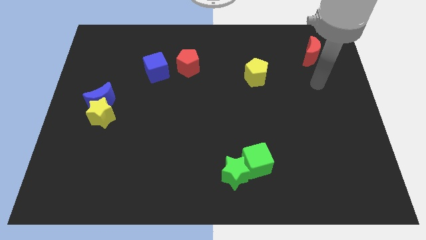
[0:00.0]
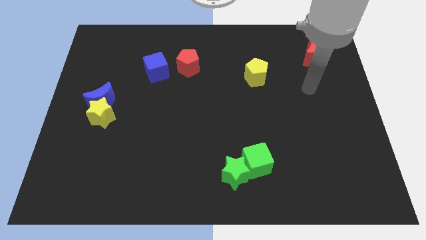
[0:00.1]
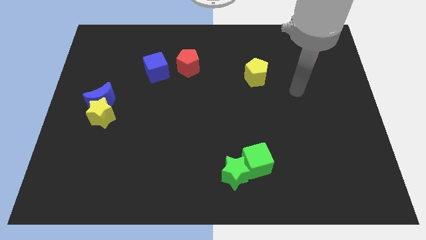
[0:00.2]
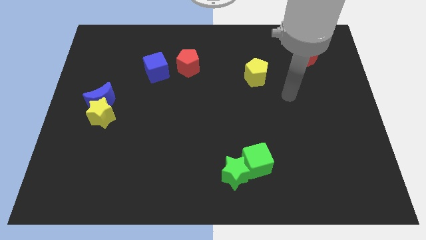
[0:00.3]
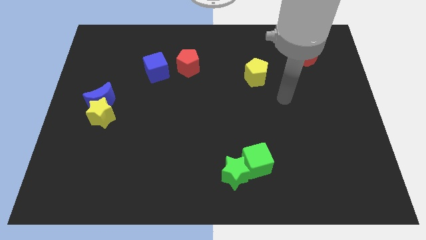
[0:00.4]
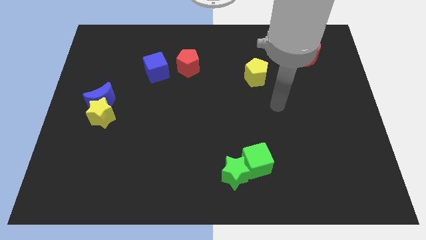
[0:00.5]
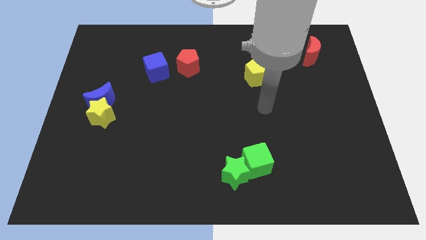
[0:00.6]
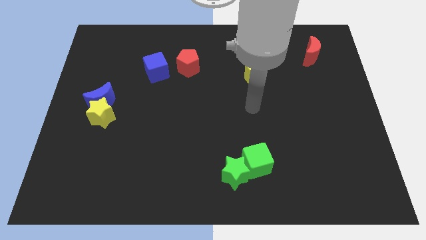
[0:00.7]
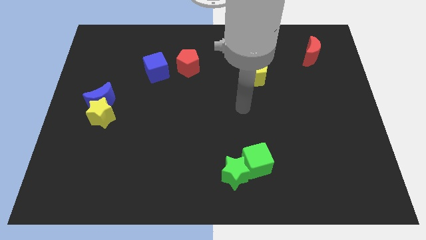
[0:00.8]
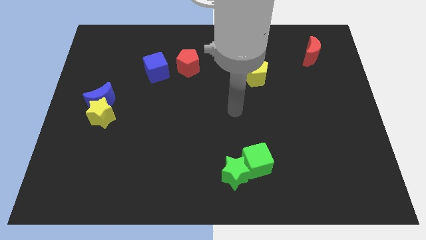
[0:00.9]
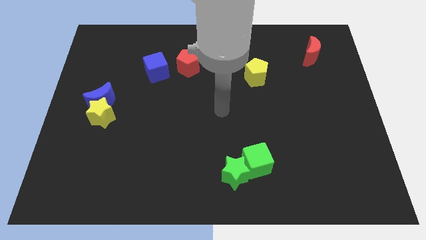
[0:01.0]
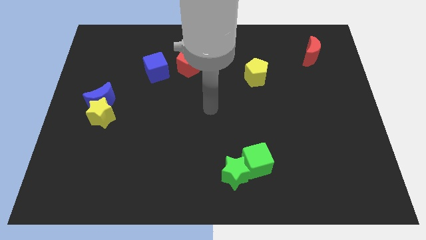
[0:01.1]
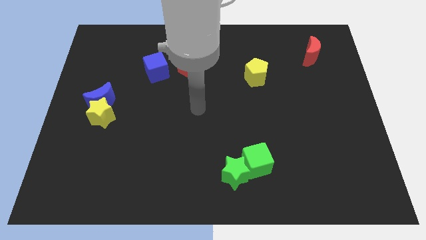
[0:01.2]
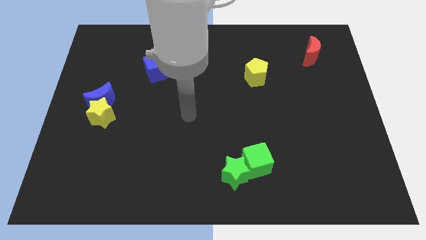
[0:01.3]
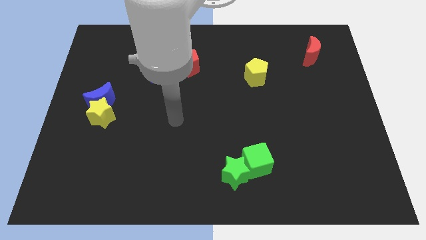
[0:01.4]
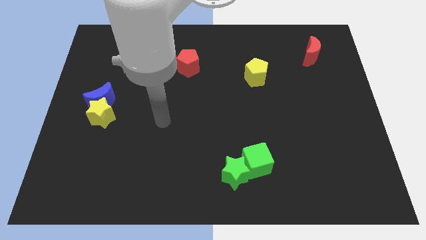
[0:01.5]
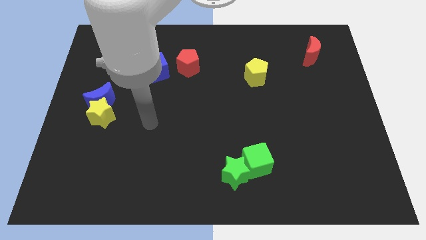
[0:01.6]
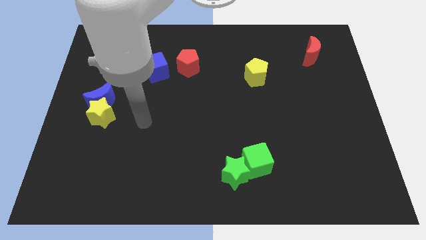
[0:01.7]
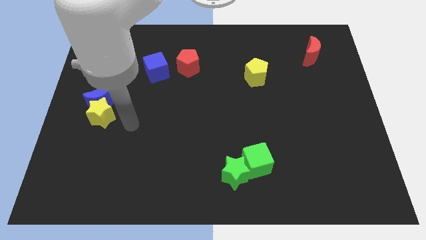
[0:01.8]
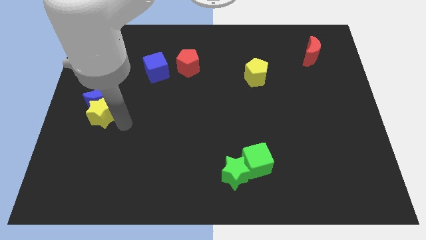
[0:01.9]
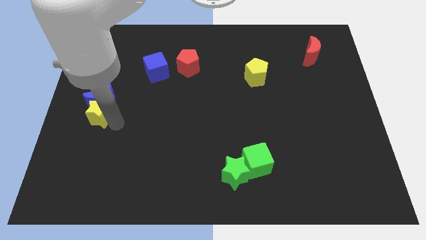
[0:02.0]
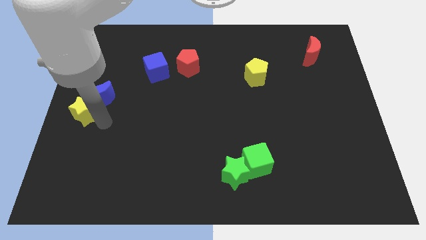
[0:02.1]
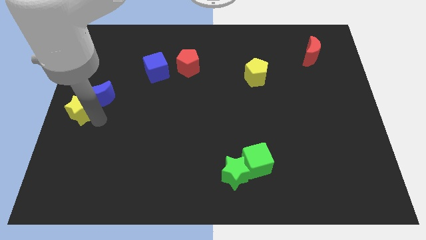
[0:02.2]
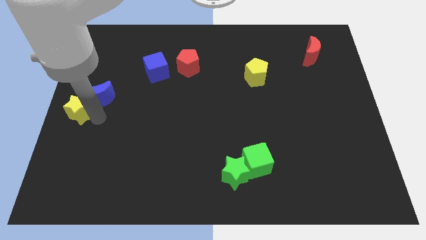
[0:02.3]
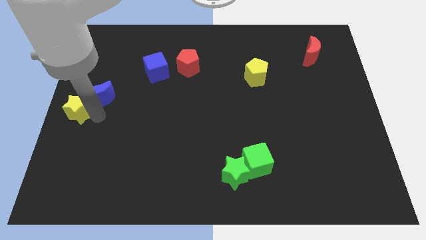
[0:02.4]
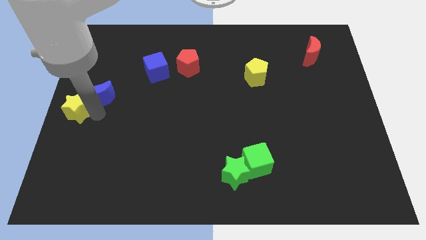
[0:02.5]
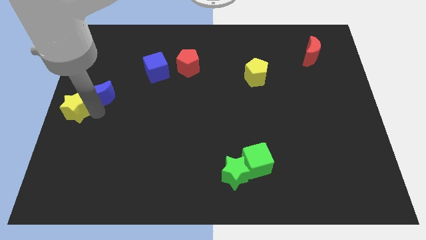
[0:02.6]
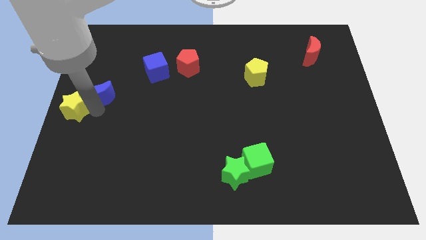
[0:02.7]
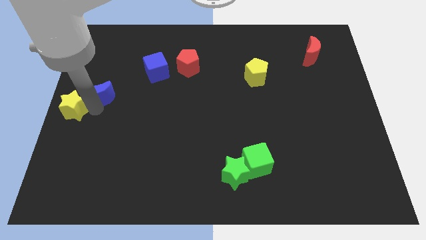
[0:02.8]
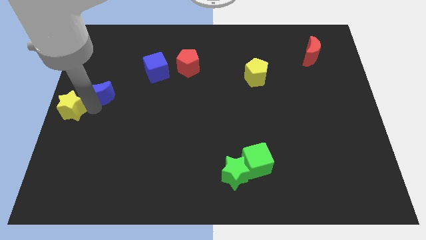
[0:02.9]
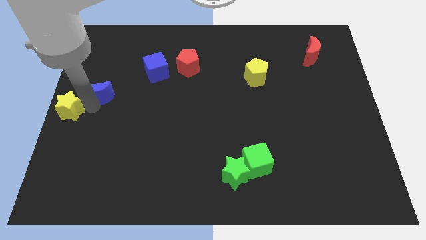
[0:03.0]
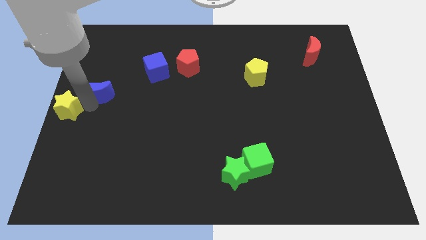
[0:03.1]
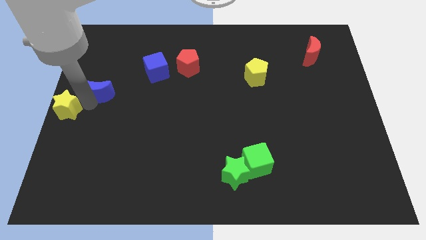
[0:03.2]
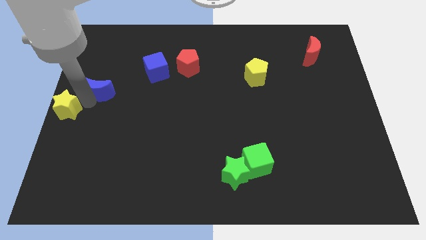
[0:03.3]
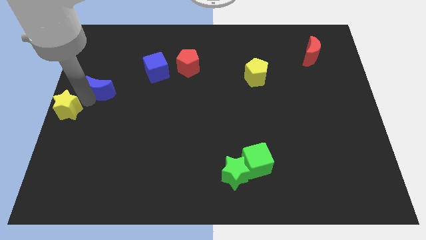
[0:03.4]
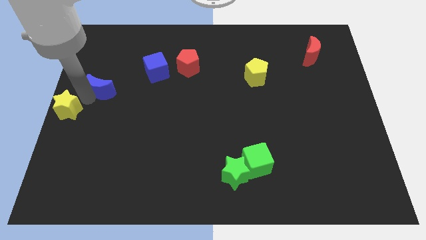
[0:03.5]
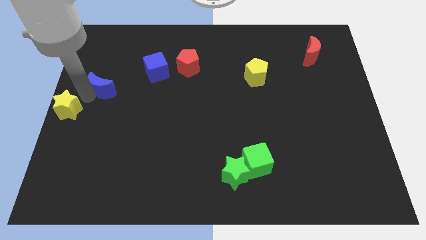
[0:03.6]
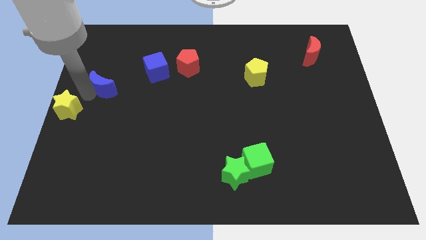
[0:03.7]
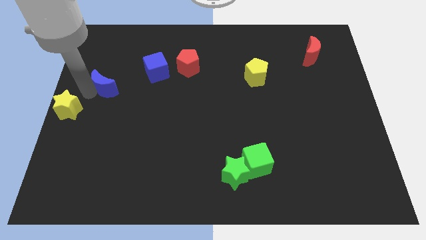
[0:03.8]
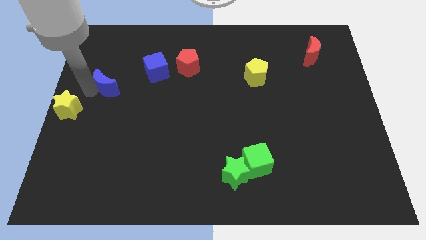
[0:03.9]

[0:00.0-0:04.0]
separate the blue moon from the yellow star

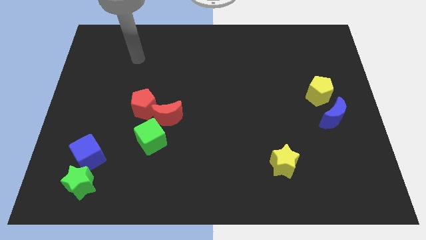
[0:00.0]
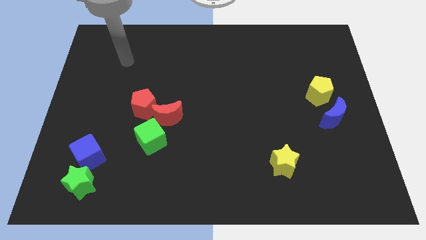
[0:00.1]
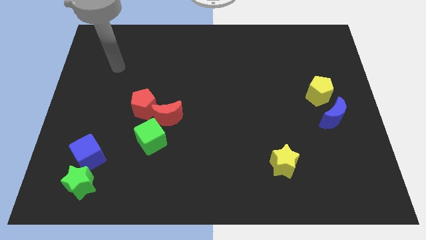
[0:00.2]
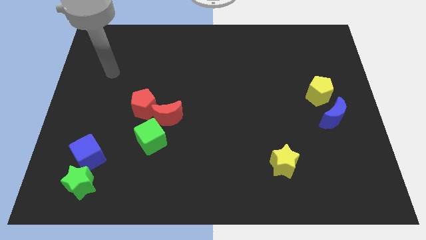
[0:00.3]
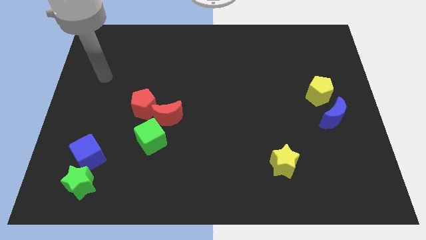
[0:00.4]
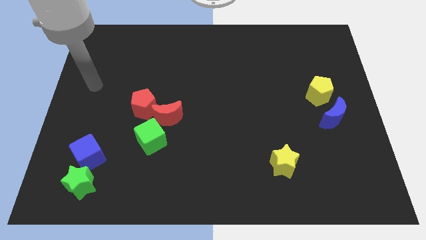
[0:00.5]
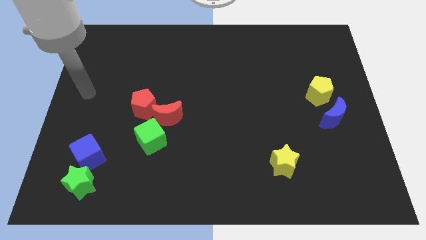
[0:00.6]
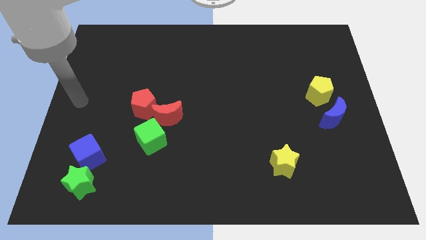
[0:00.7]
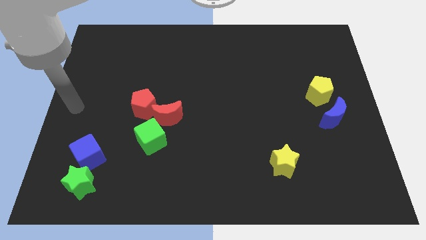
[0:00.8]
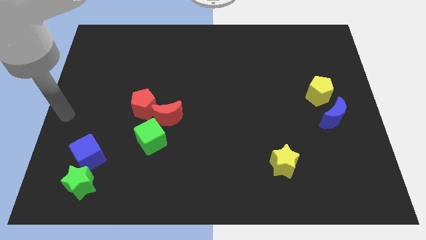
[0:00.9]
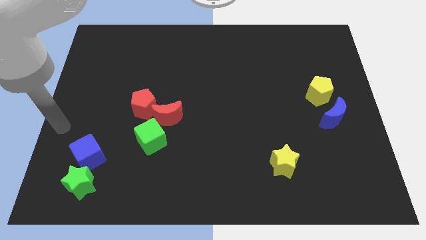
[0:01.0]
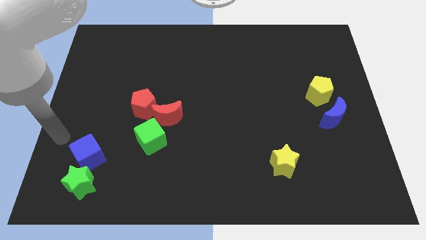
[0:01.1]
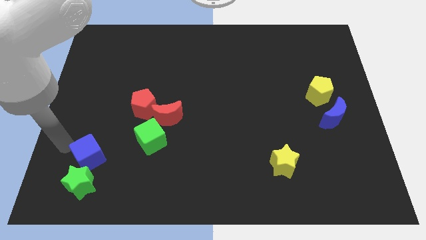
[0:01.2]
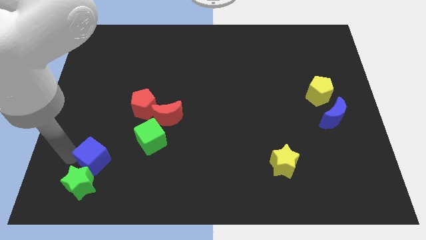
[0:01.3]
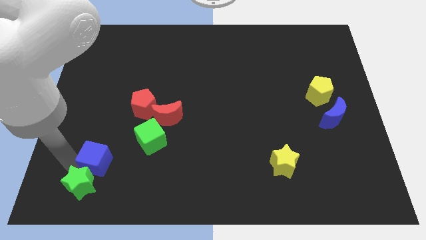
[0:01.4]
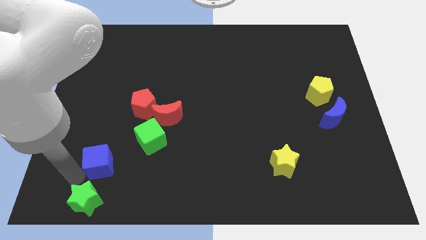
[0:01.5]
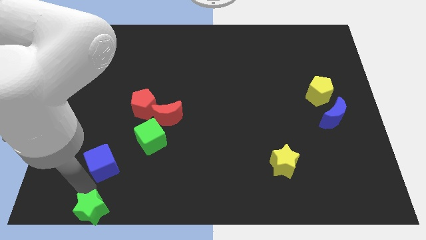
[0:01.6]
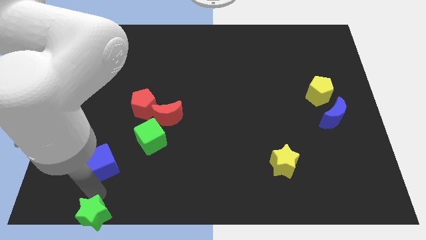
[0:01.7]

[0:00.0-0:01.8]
pull the blue cube apart from the green star

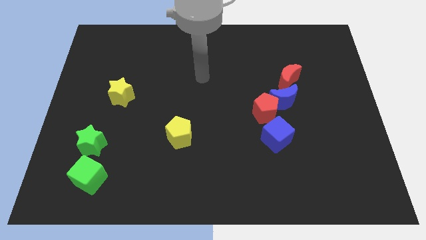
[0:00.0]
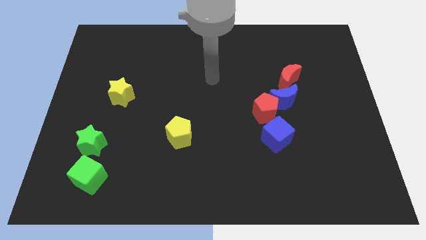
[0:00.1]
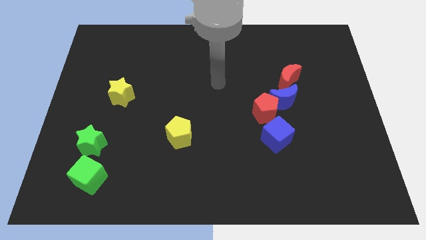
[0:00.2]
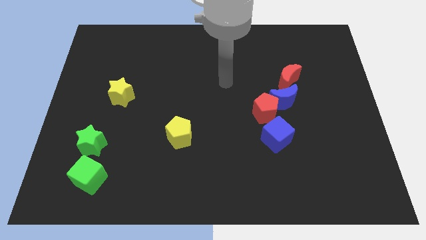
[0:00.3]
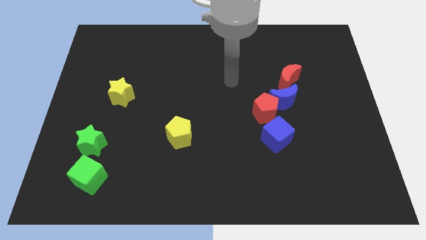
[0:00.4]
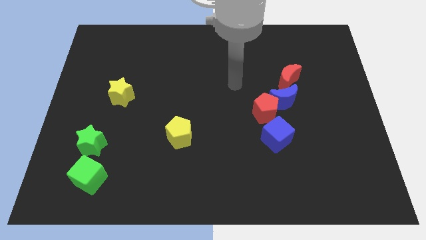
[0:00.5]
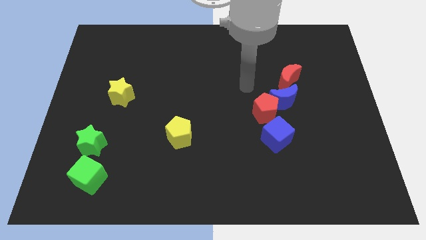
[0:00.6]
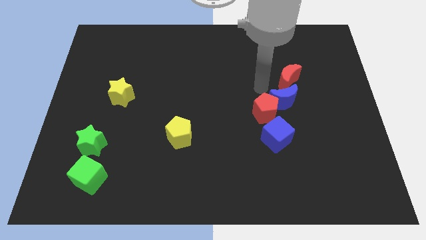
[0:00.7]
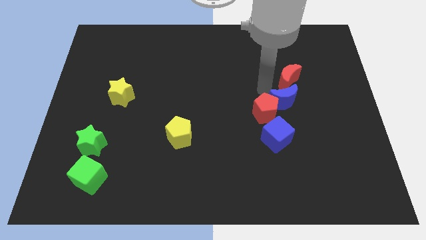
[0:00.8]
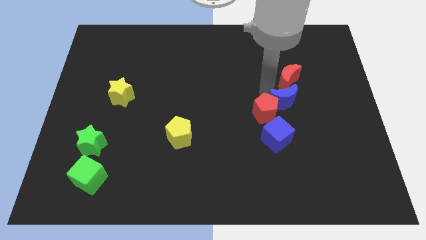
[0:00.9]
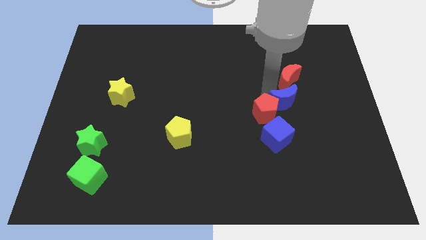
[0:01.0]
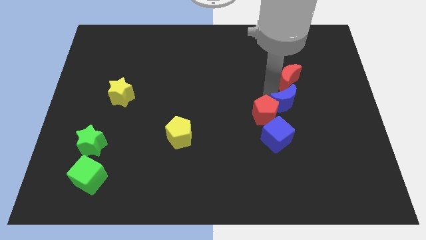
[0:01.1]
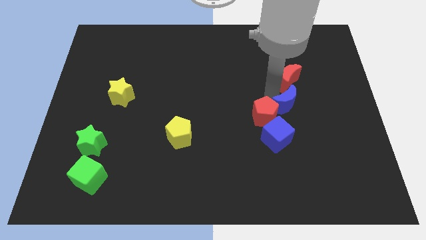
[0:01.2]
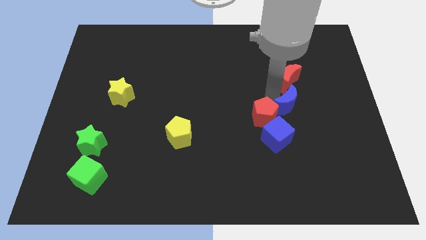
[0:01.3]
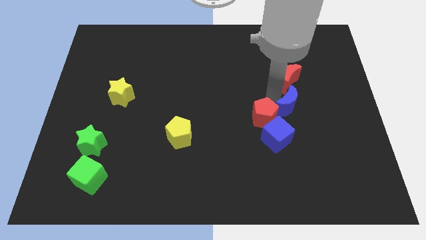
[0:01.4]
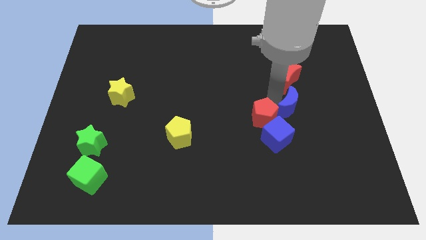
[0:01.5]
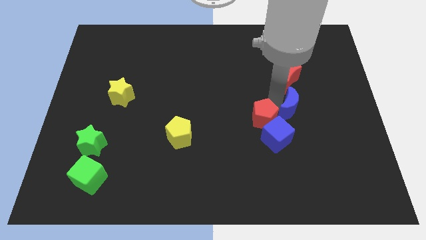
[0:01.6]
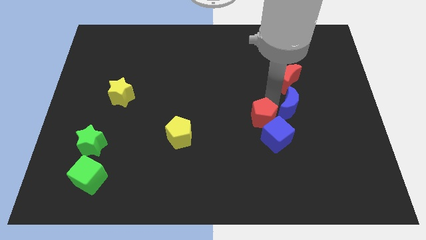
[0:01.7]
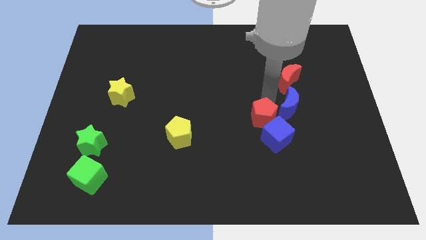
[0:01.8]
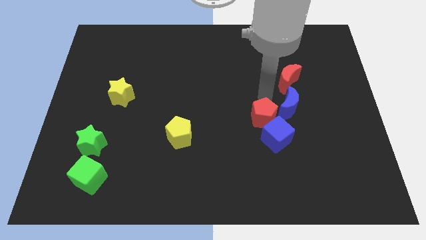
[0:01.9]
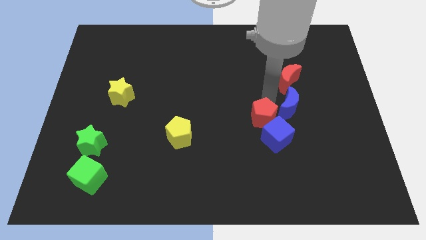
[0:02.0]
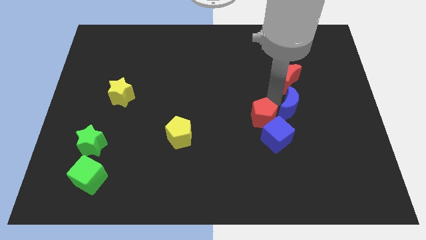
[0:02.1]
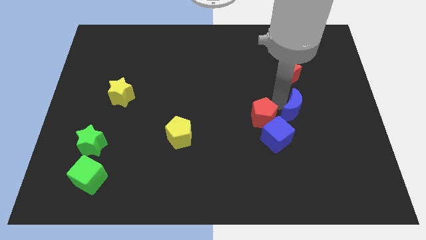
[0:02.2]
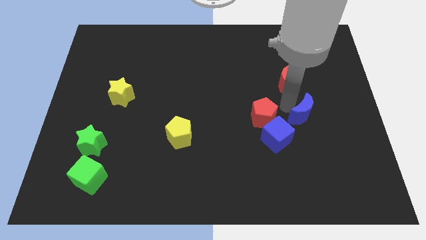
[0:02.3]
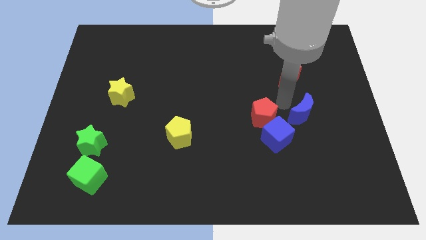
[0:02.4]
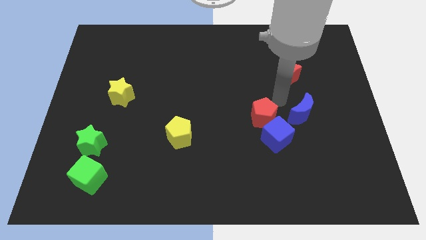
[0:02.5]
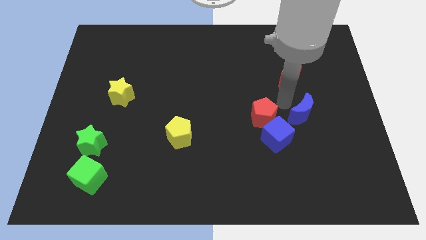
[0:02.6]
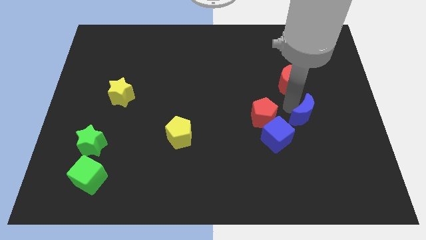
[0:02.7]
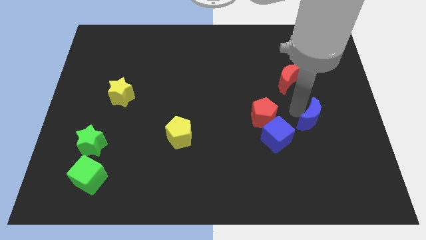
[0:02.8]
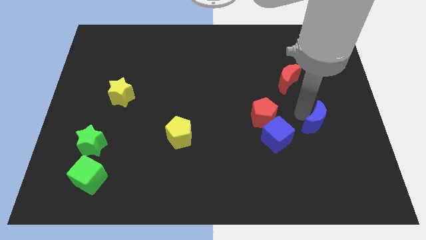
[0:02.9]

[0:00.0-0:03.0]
separate the blue moon from the red pentagon and red moon

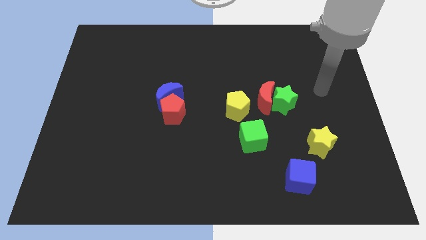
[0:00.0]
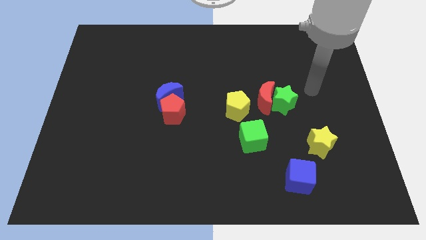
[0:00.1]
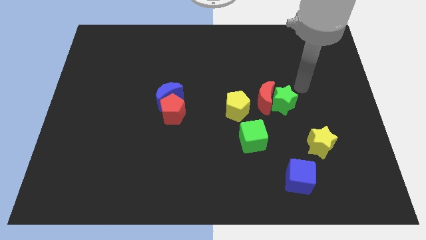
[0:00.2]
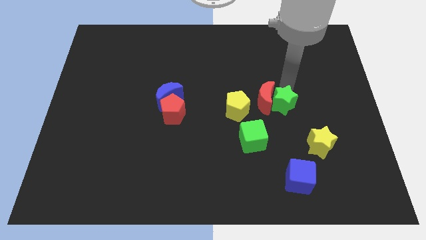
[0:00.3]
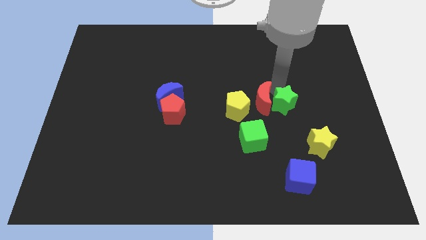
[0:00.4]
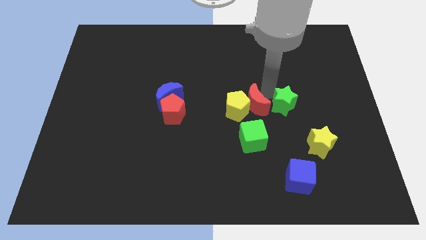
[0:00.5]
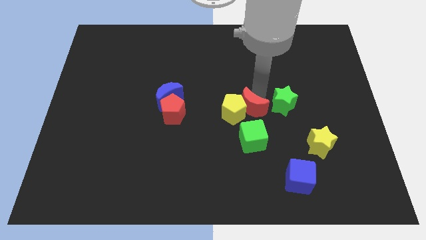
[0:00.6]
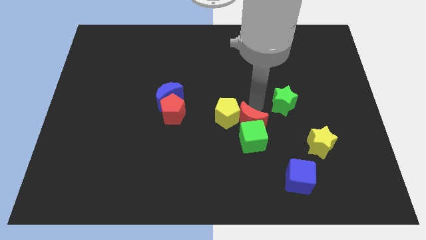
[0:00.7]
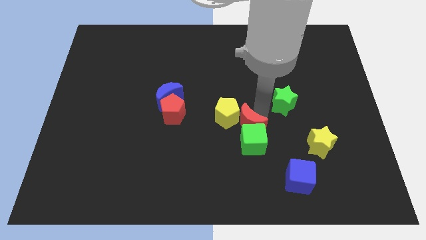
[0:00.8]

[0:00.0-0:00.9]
move the green star away from the red moon
